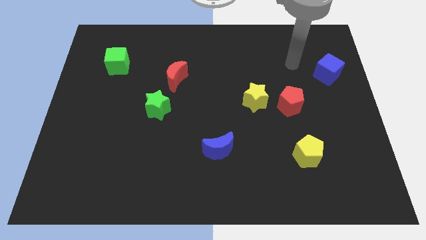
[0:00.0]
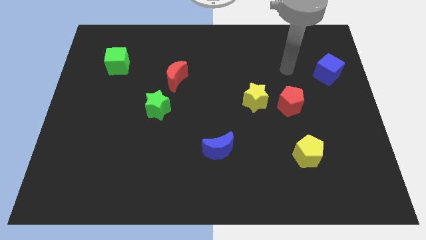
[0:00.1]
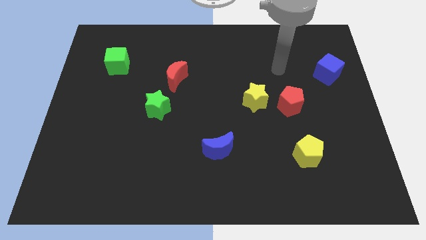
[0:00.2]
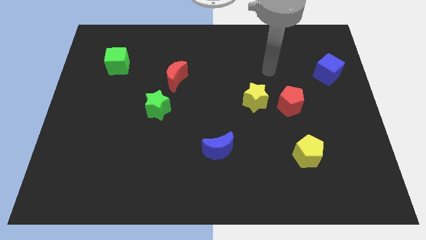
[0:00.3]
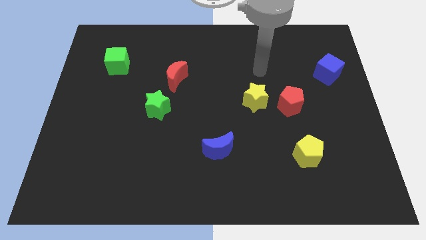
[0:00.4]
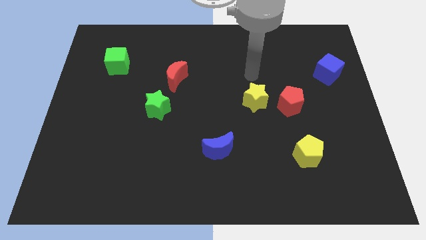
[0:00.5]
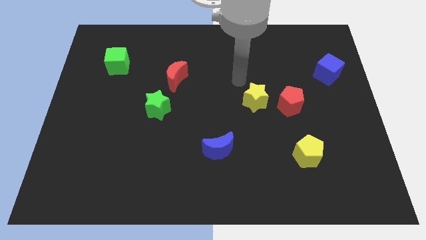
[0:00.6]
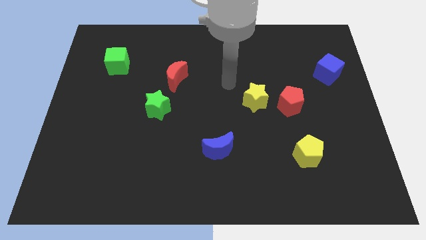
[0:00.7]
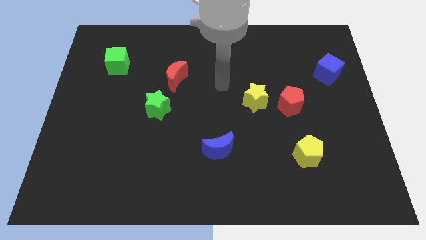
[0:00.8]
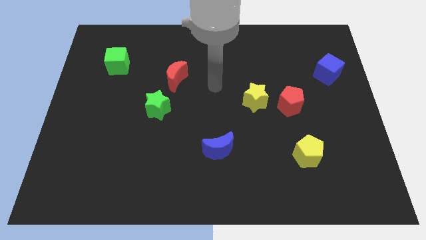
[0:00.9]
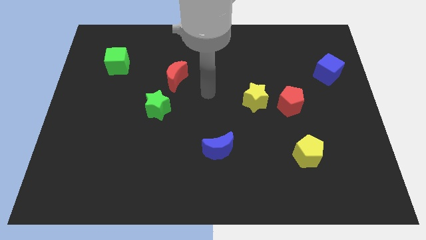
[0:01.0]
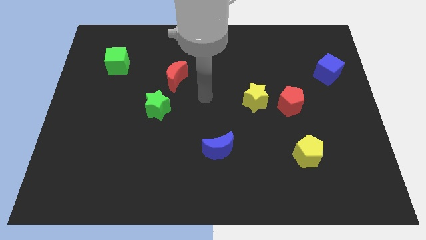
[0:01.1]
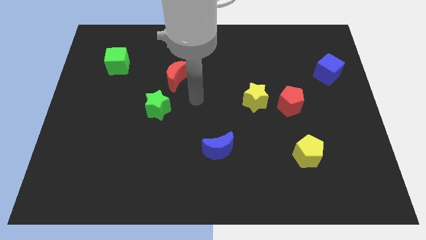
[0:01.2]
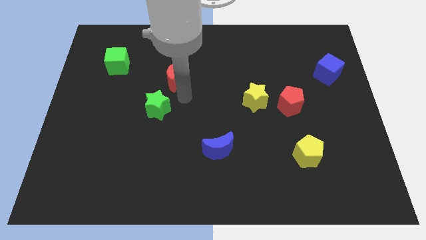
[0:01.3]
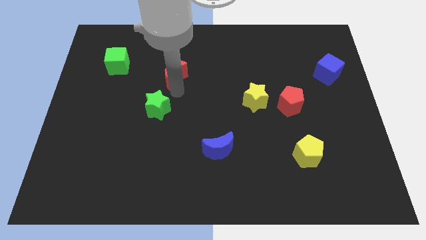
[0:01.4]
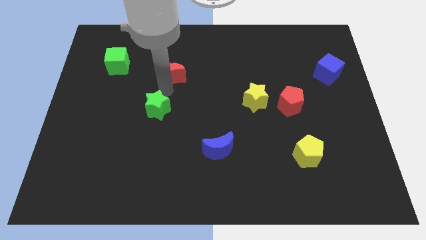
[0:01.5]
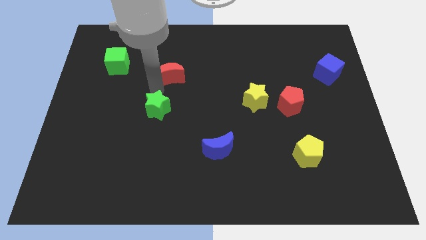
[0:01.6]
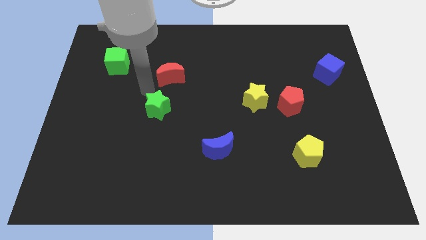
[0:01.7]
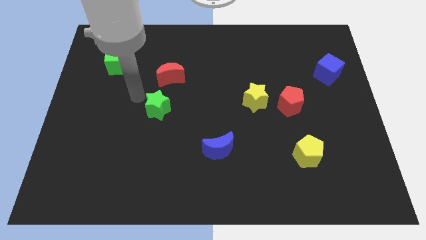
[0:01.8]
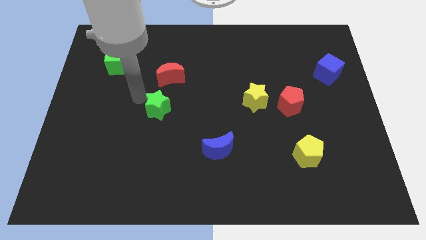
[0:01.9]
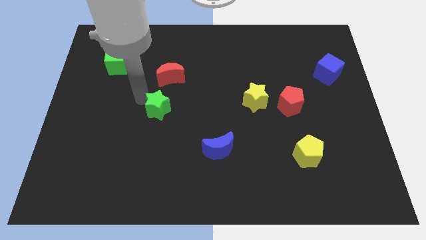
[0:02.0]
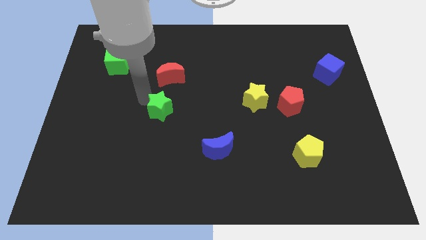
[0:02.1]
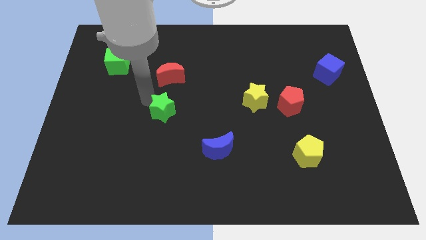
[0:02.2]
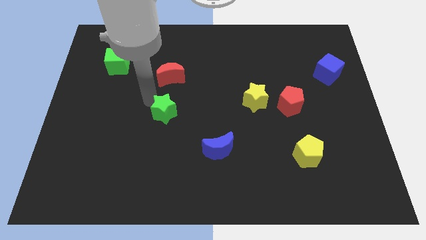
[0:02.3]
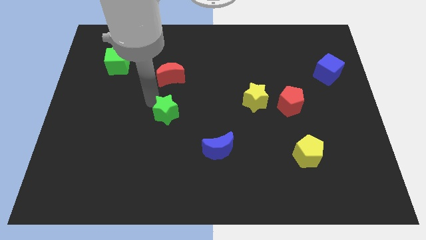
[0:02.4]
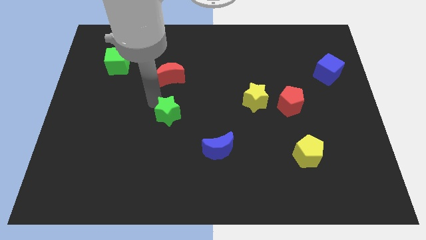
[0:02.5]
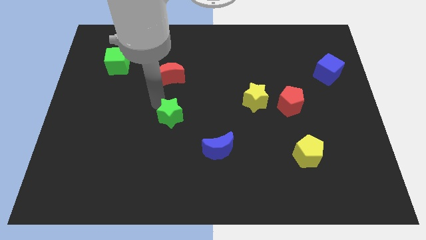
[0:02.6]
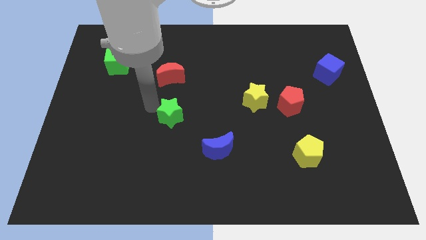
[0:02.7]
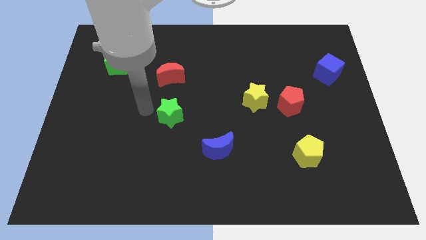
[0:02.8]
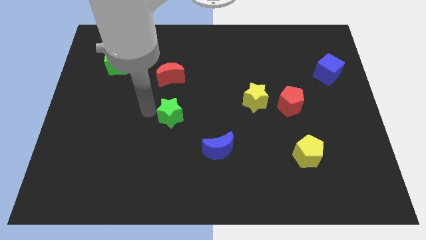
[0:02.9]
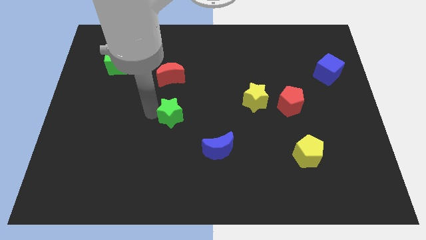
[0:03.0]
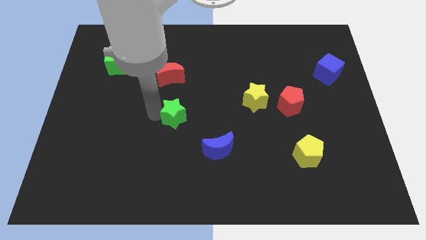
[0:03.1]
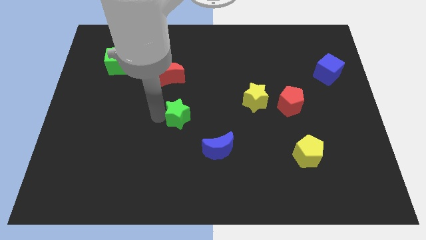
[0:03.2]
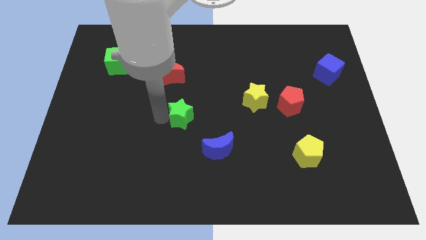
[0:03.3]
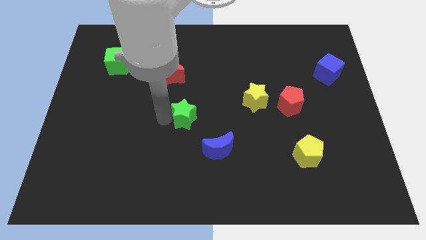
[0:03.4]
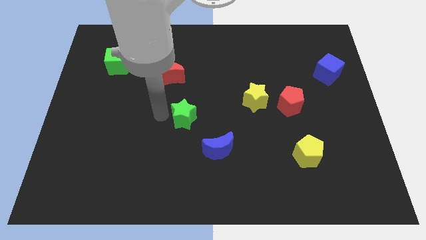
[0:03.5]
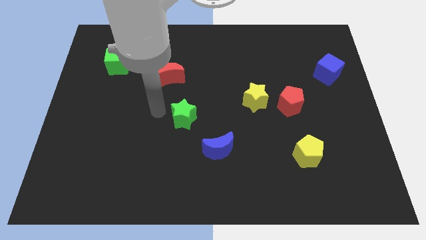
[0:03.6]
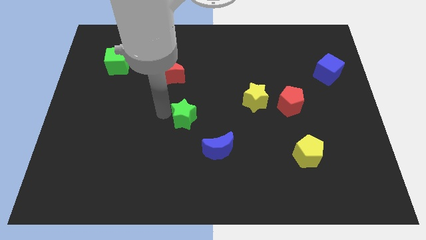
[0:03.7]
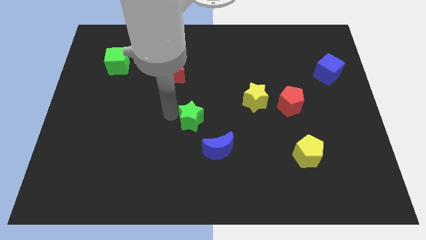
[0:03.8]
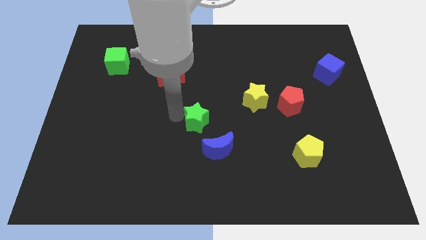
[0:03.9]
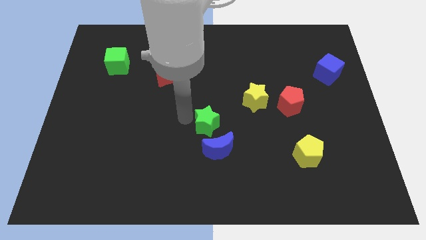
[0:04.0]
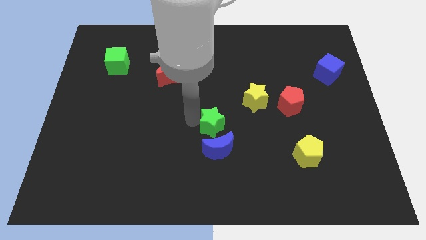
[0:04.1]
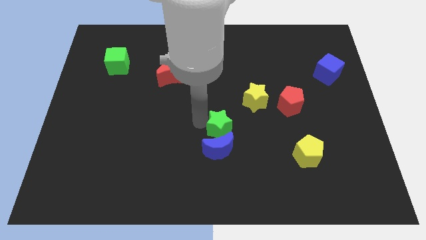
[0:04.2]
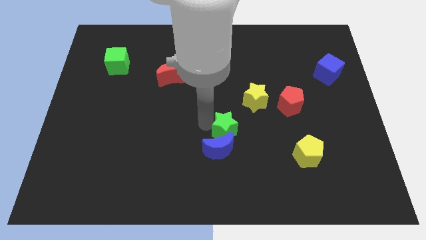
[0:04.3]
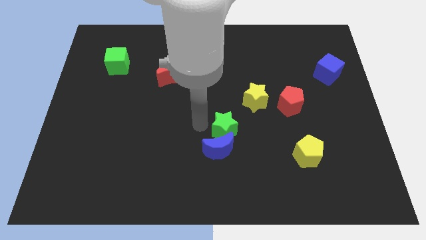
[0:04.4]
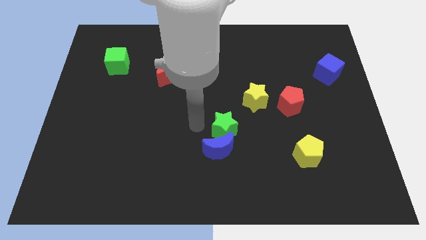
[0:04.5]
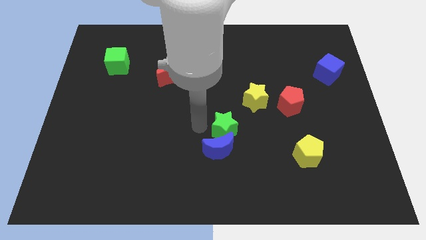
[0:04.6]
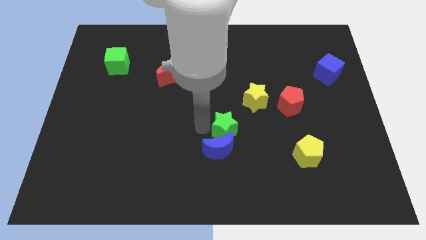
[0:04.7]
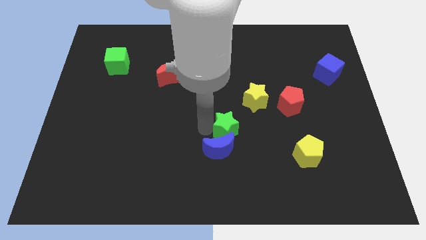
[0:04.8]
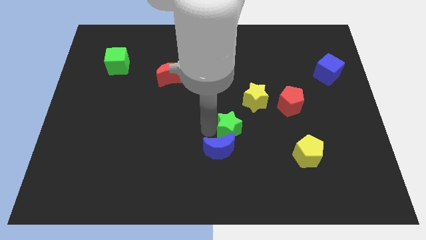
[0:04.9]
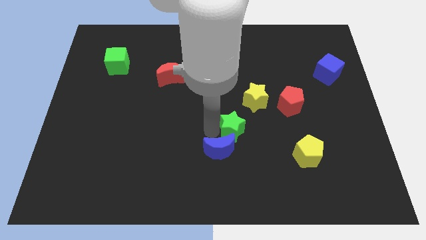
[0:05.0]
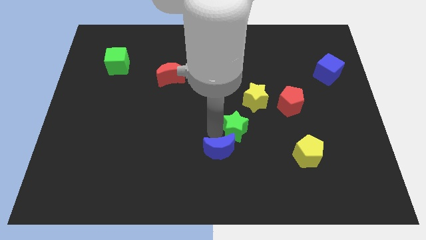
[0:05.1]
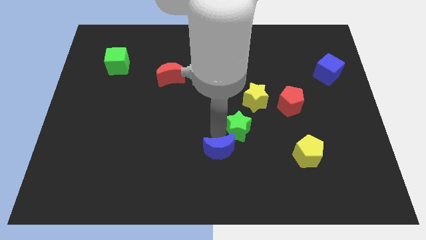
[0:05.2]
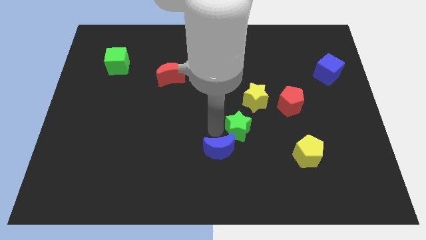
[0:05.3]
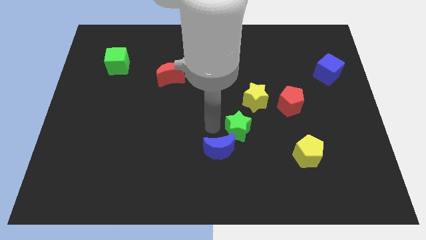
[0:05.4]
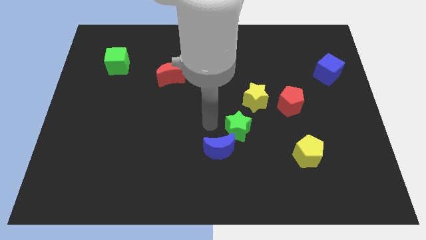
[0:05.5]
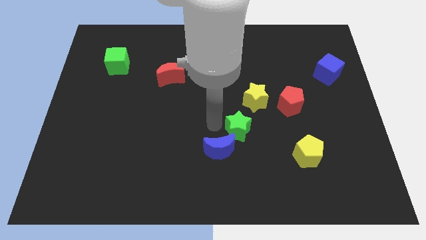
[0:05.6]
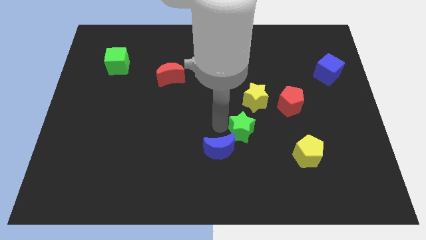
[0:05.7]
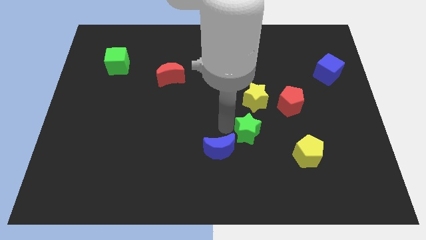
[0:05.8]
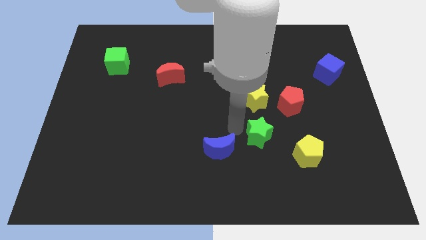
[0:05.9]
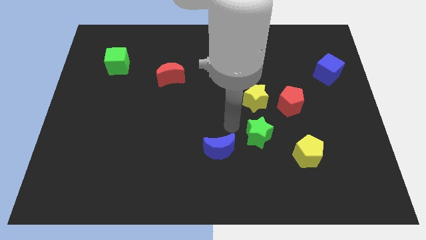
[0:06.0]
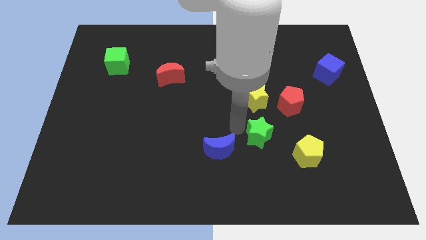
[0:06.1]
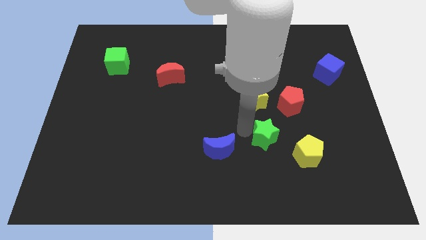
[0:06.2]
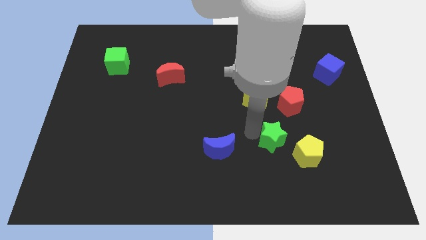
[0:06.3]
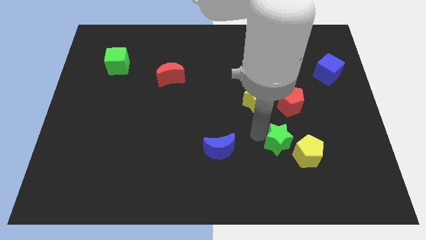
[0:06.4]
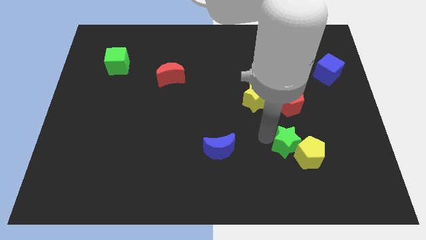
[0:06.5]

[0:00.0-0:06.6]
slide the green star close to the yellow pentagon

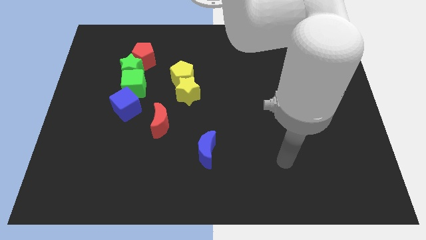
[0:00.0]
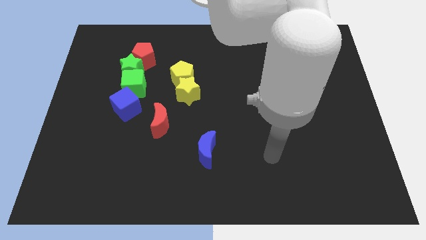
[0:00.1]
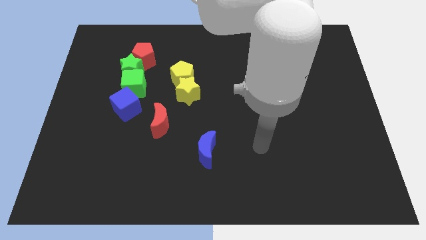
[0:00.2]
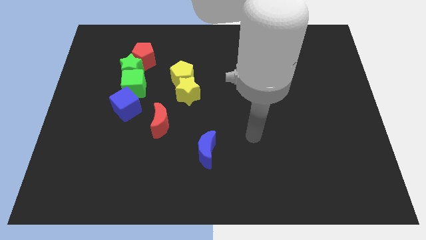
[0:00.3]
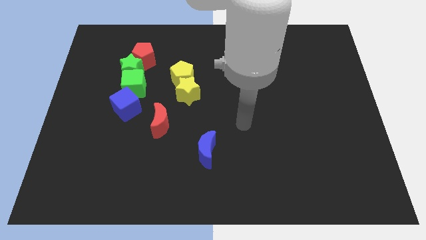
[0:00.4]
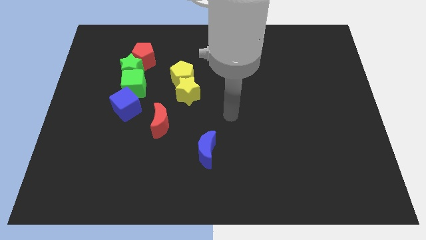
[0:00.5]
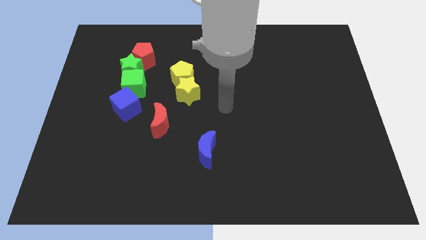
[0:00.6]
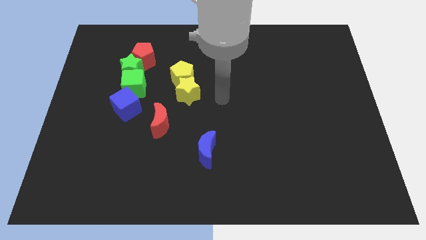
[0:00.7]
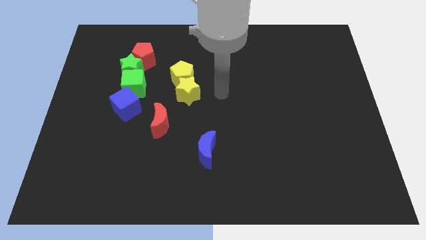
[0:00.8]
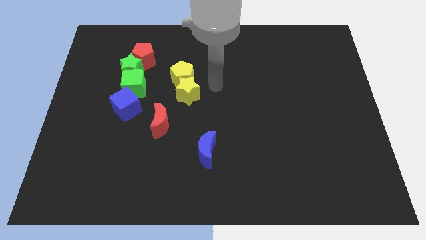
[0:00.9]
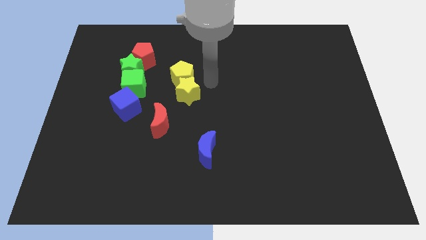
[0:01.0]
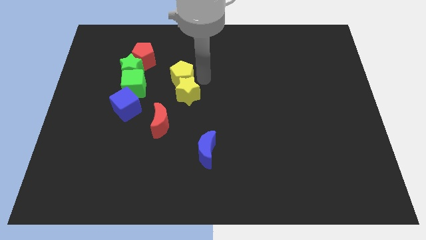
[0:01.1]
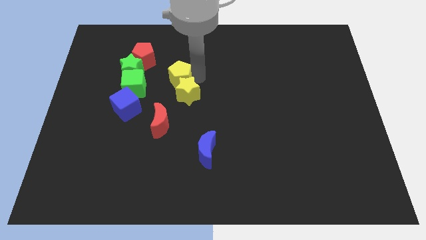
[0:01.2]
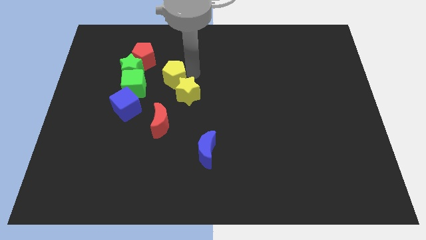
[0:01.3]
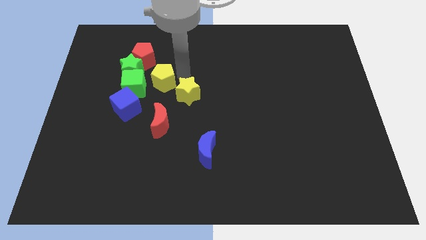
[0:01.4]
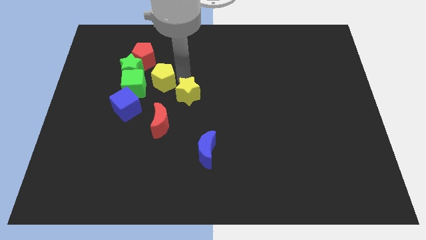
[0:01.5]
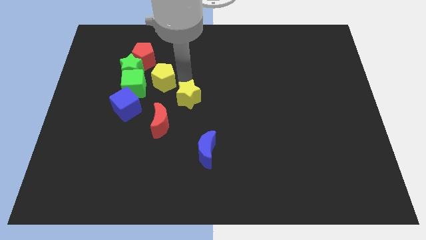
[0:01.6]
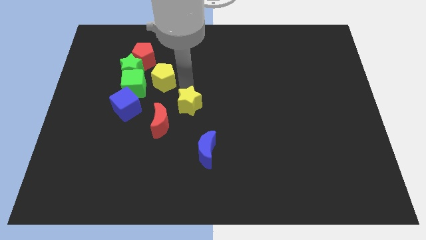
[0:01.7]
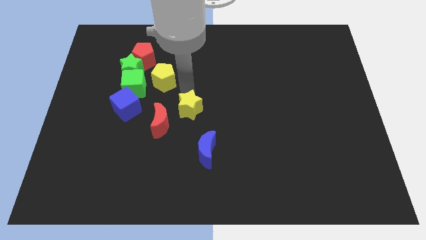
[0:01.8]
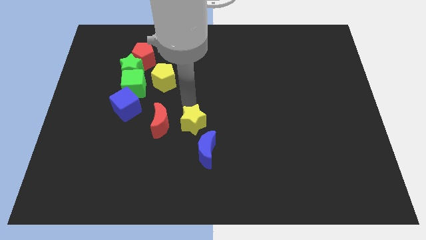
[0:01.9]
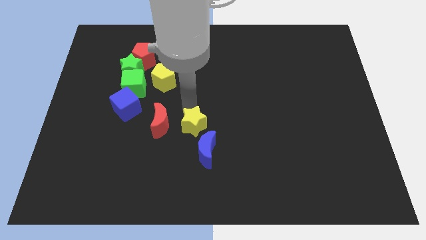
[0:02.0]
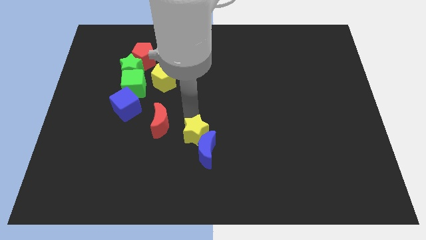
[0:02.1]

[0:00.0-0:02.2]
slide the yellow star next to the blue moon
